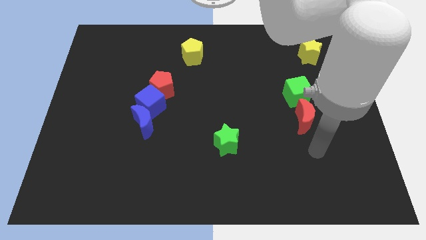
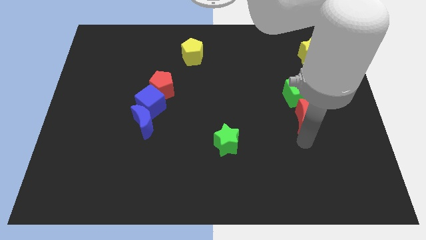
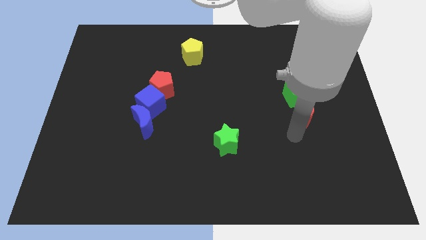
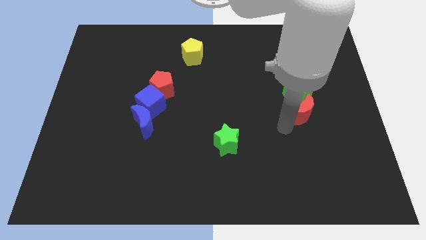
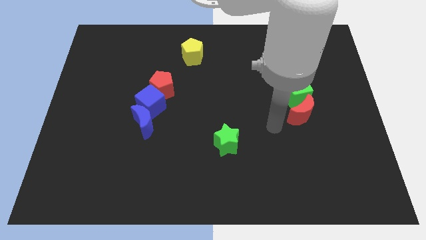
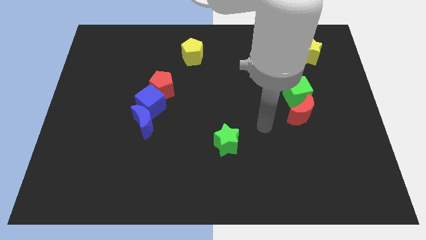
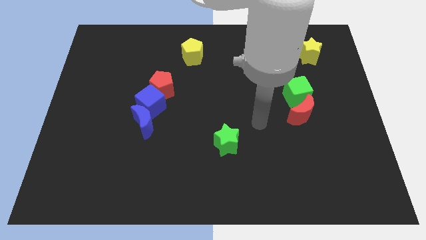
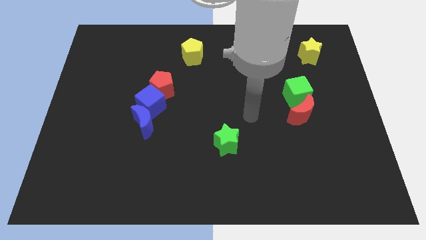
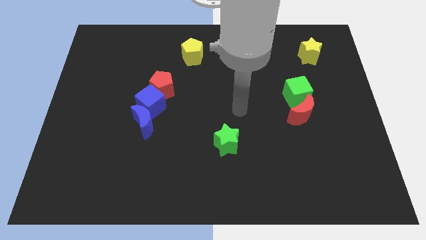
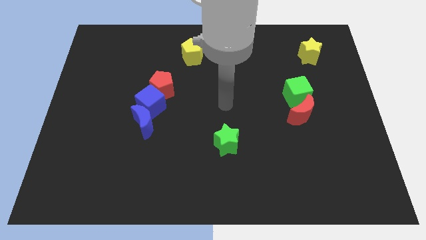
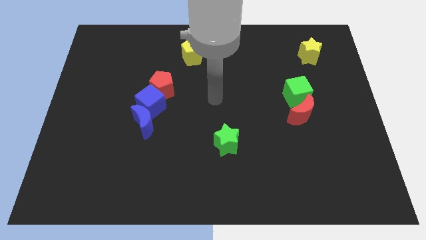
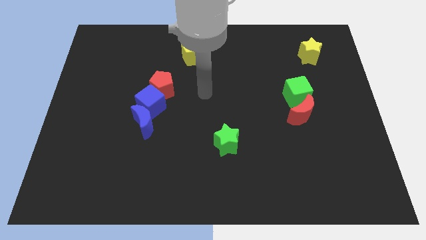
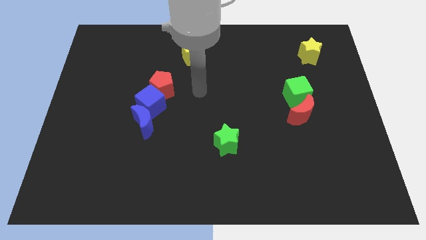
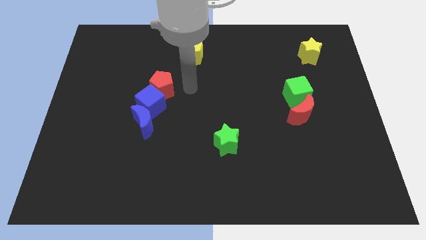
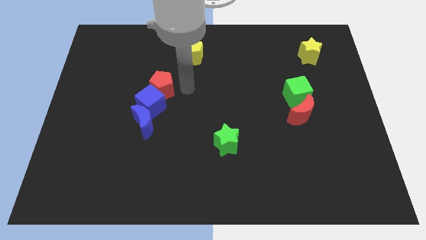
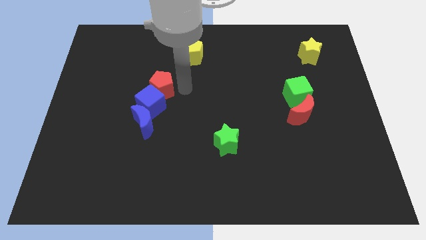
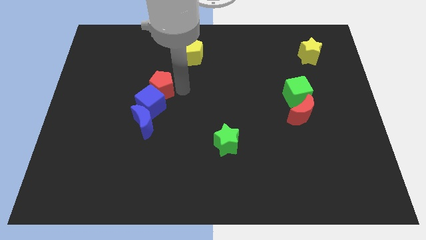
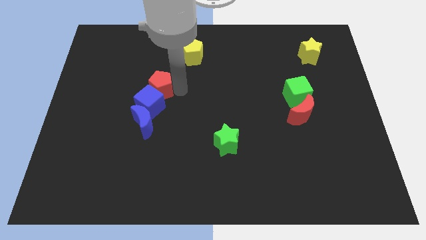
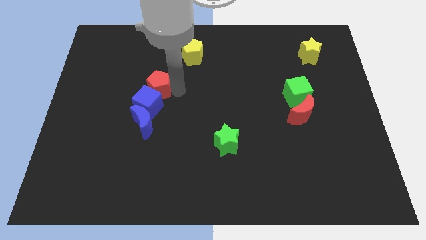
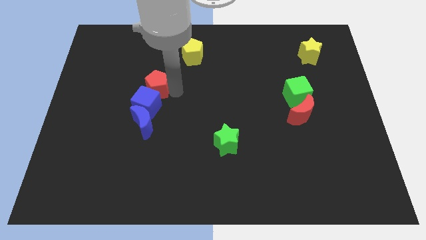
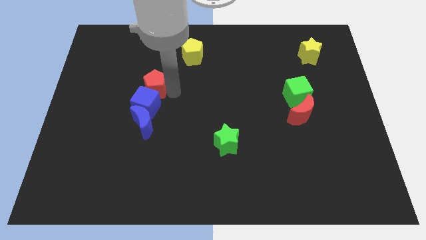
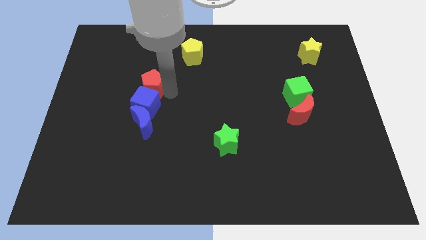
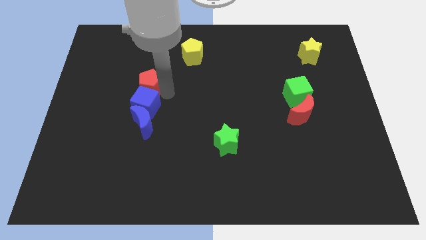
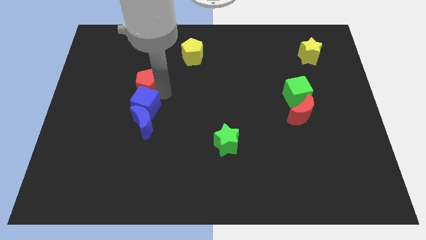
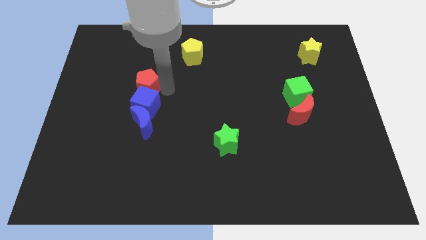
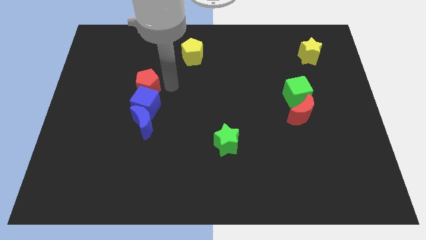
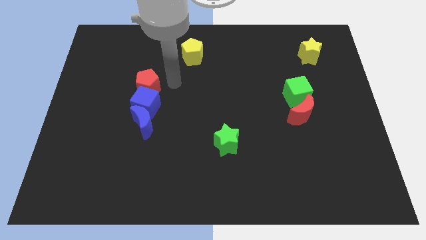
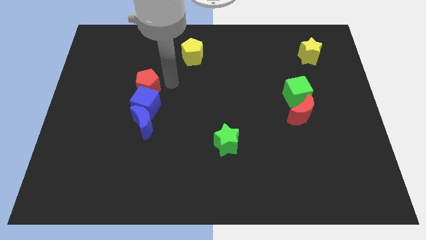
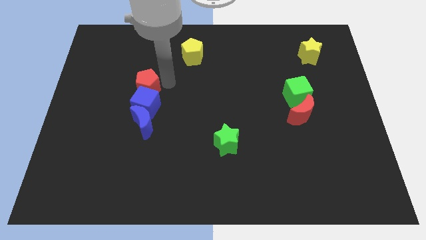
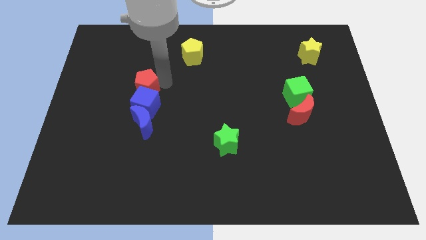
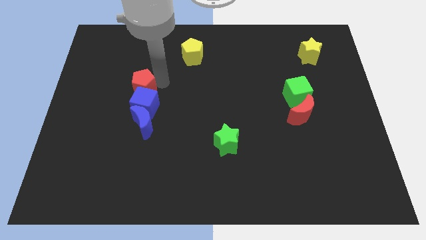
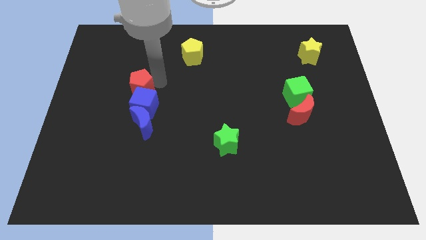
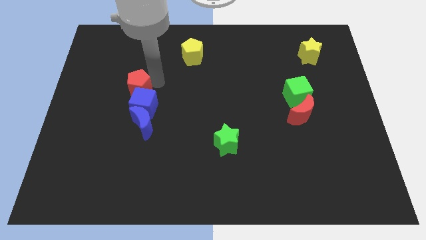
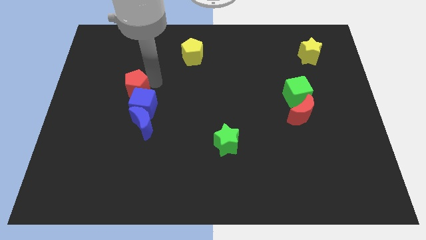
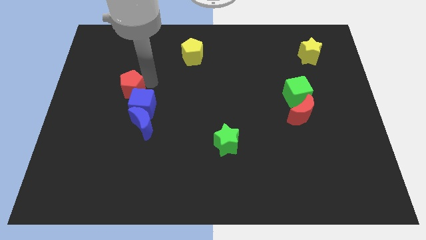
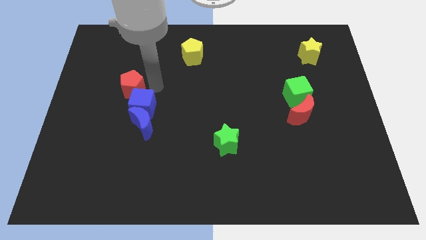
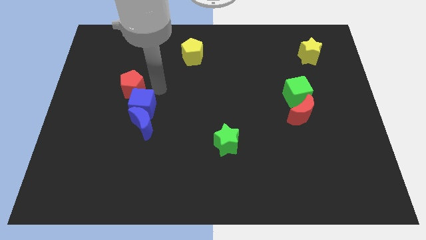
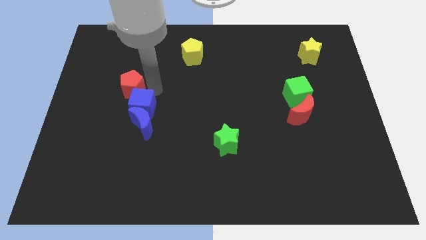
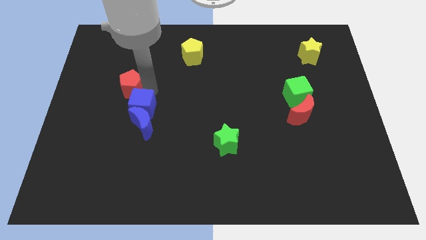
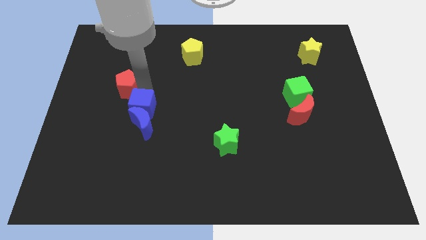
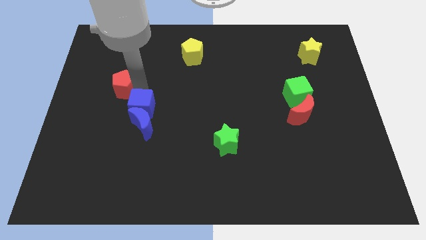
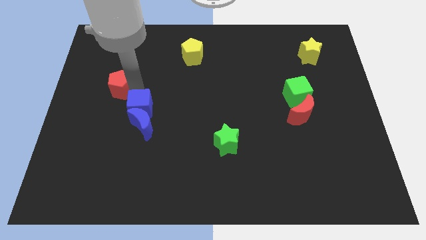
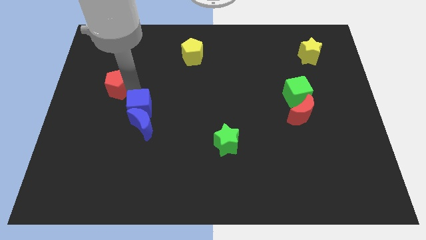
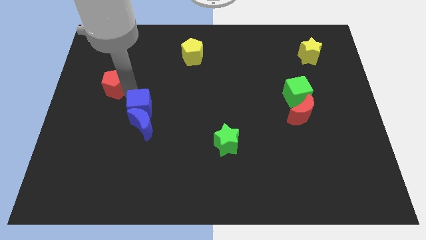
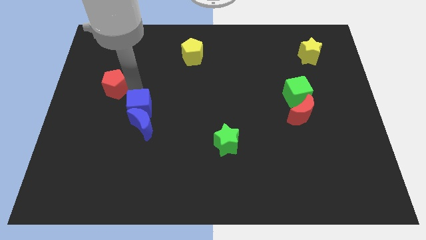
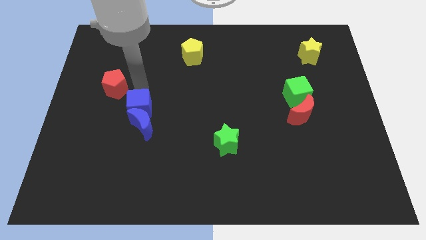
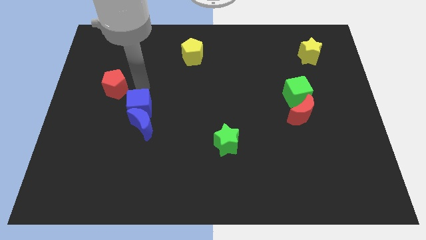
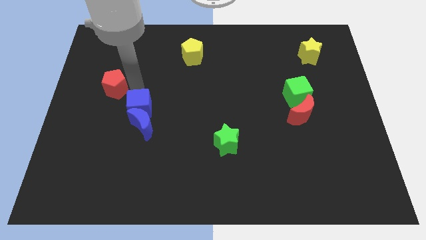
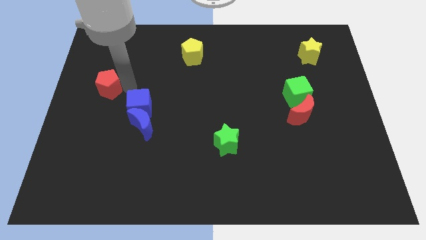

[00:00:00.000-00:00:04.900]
put the red pentagon to the left side

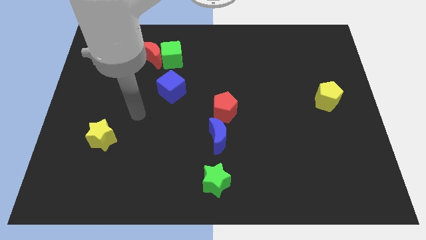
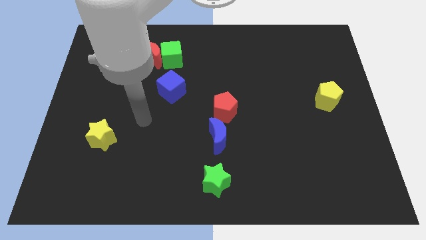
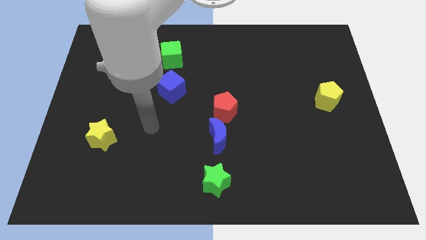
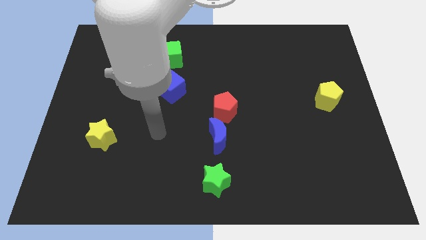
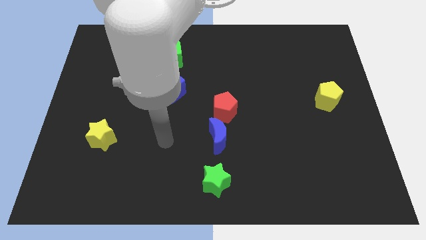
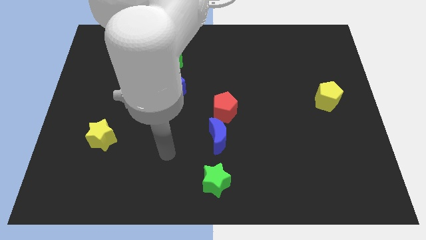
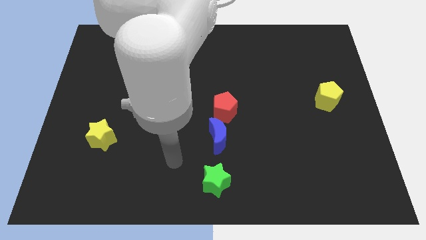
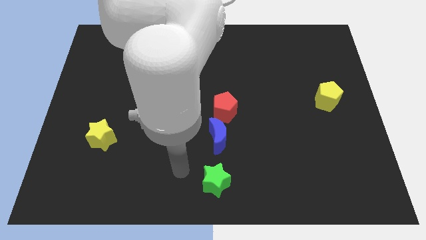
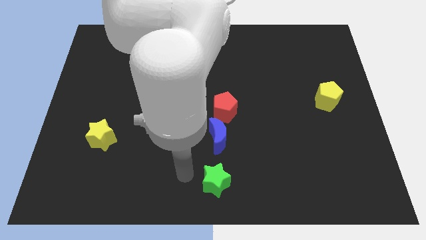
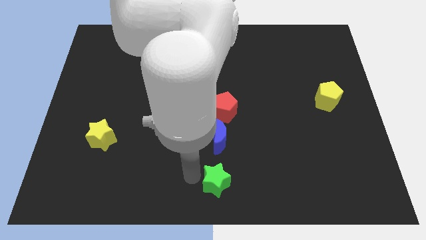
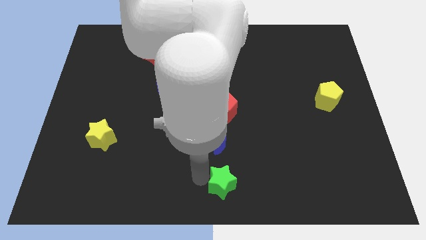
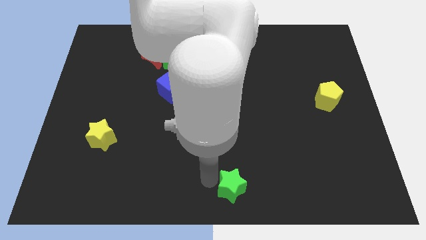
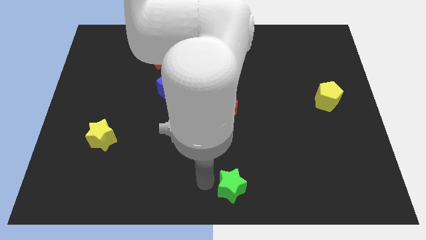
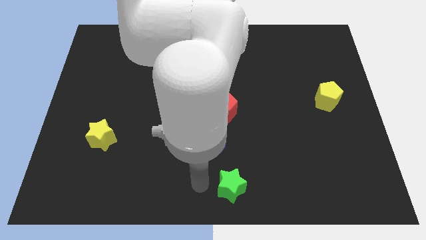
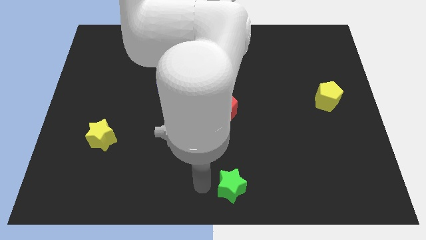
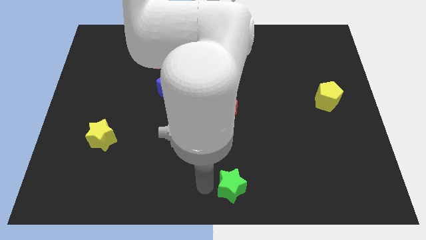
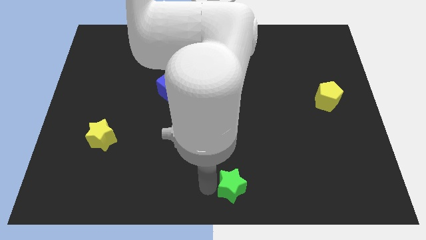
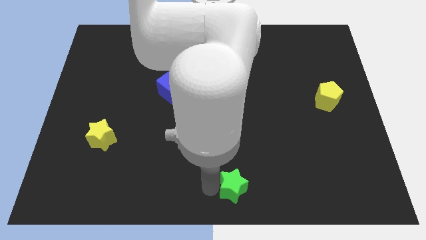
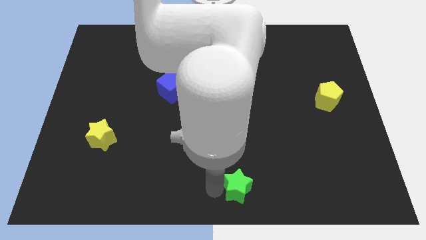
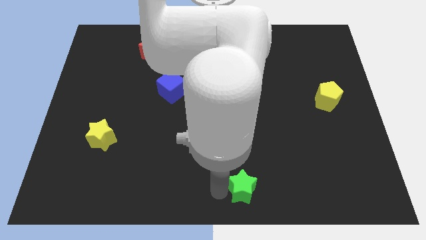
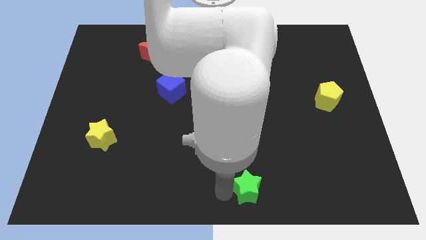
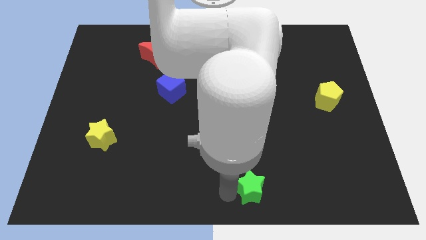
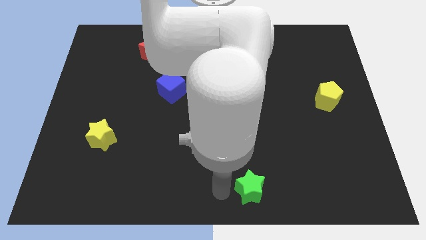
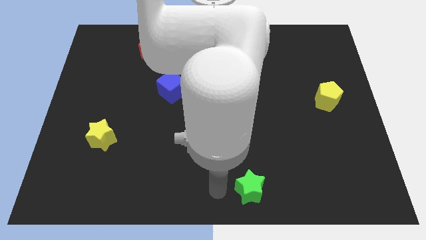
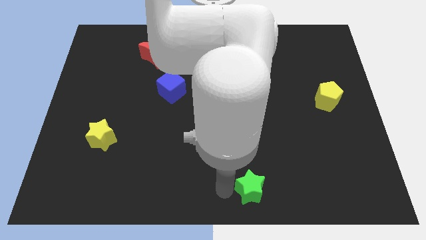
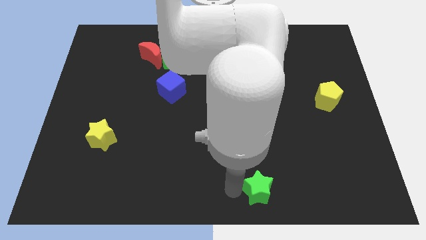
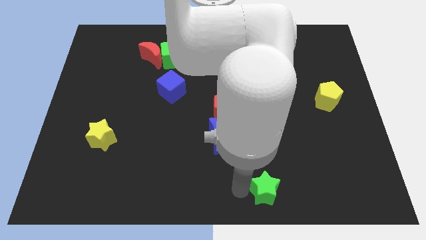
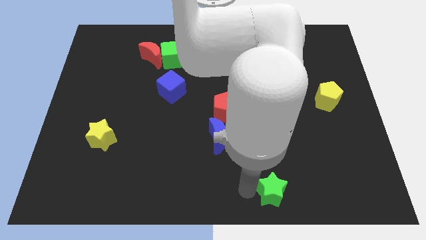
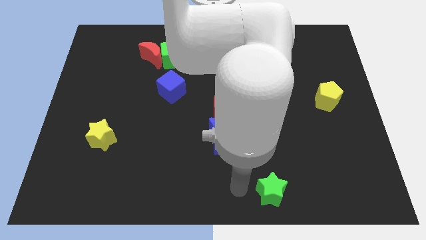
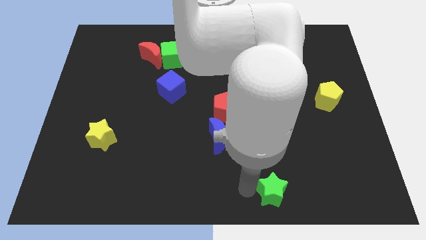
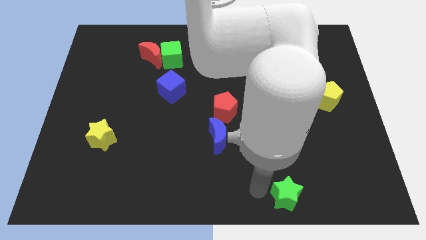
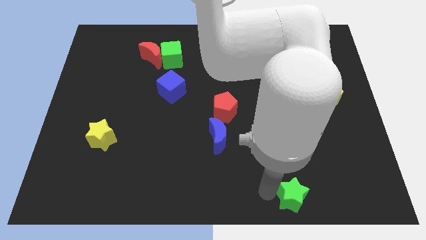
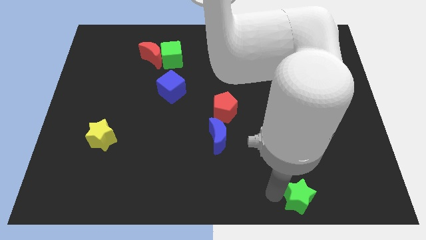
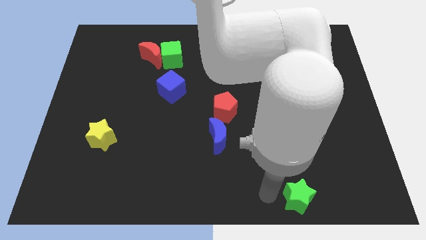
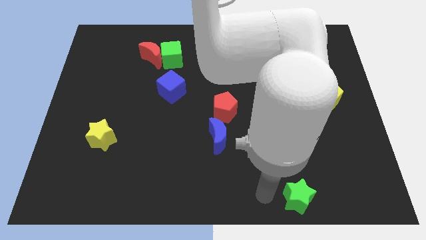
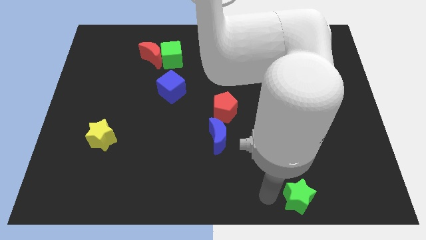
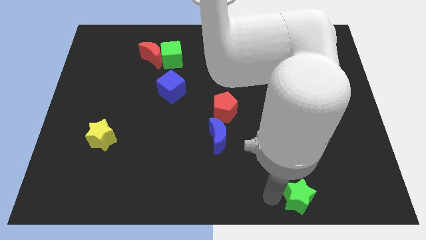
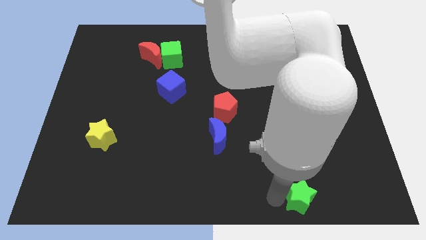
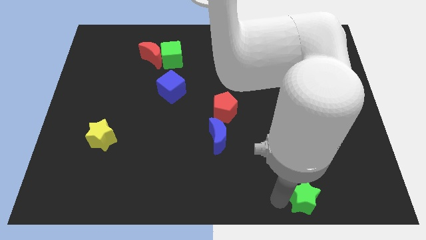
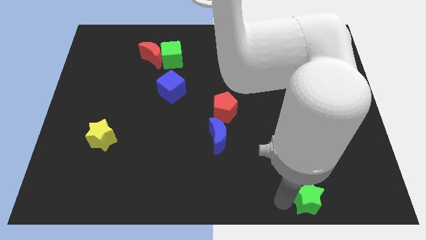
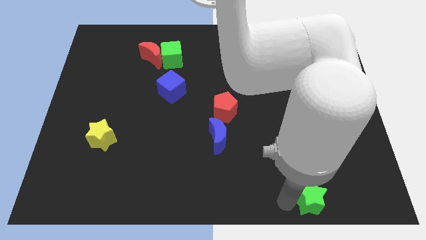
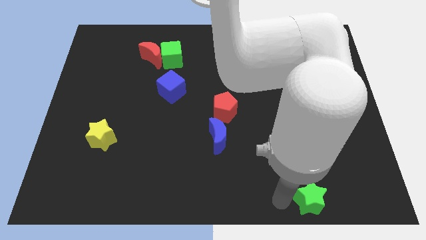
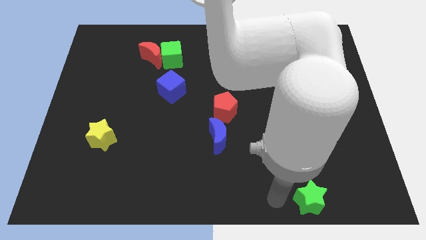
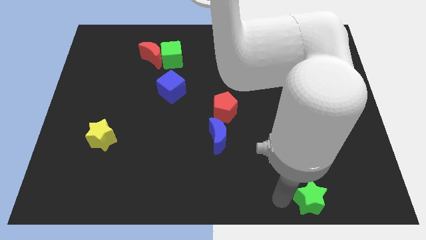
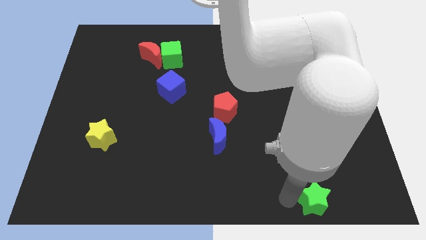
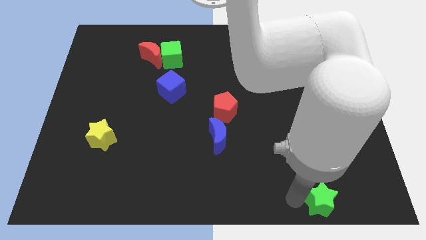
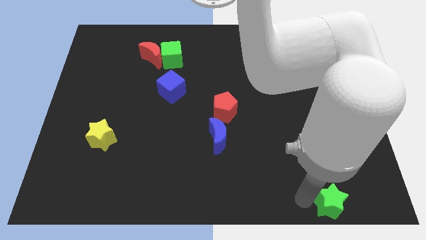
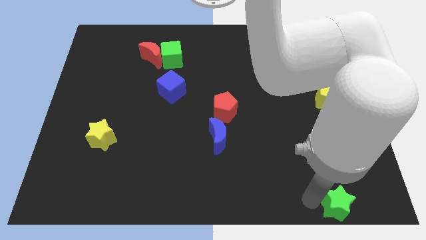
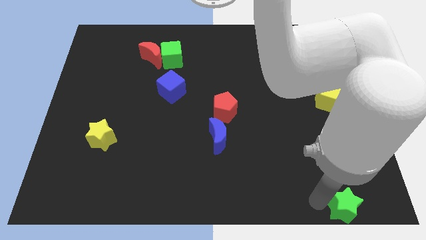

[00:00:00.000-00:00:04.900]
push the green star to the bottom right
